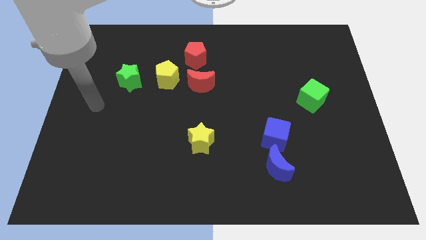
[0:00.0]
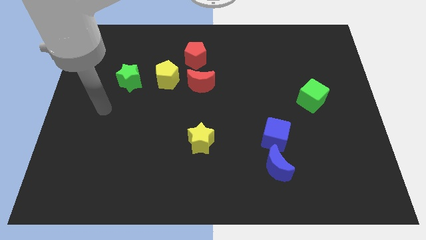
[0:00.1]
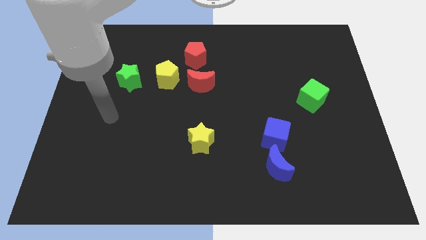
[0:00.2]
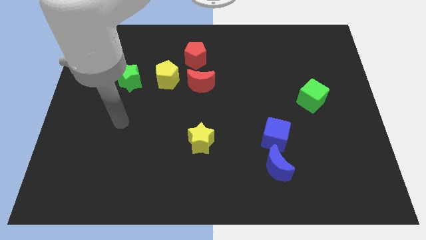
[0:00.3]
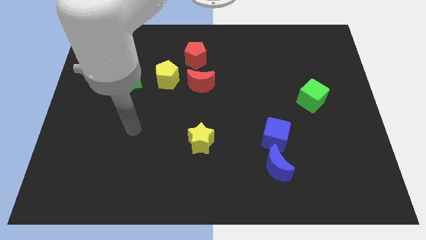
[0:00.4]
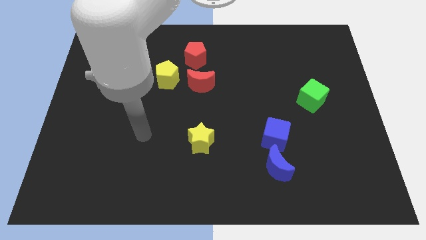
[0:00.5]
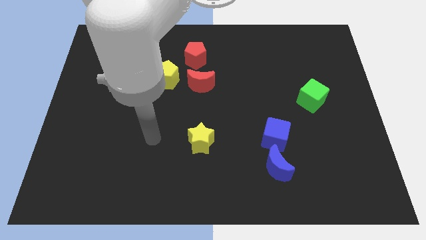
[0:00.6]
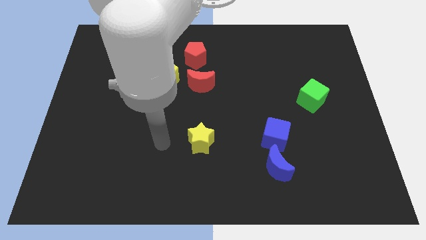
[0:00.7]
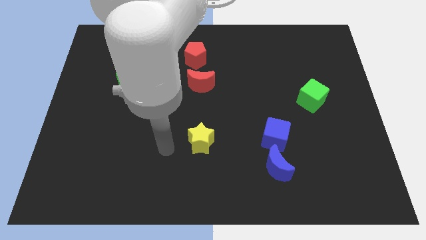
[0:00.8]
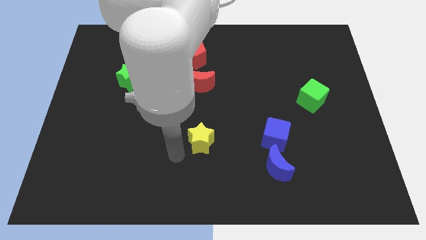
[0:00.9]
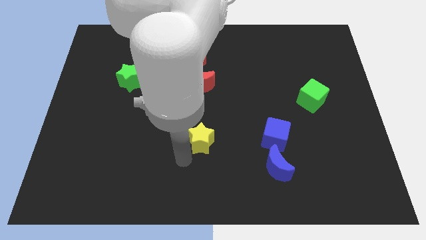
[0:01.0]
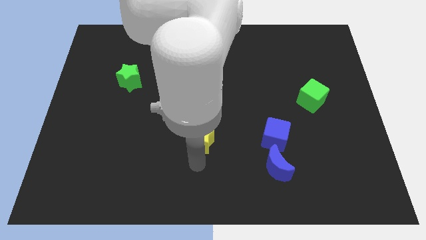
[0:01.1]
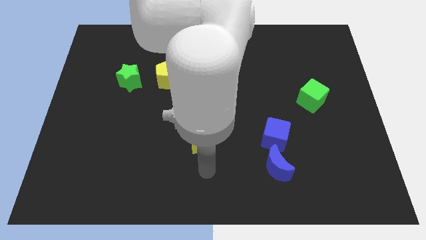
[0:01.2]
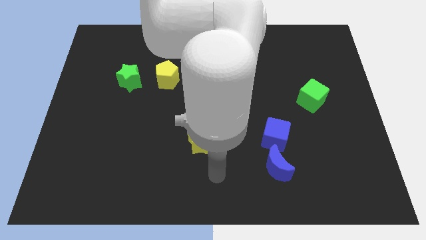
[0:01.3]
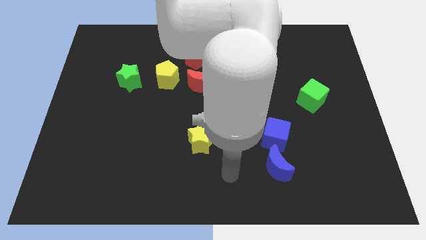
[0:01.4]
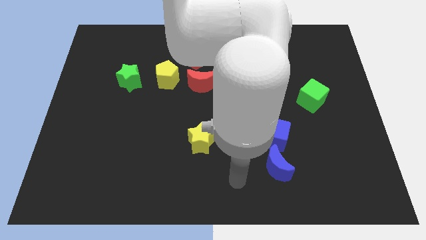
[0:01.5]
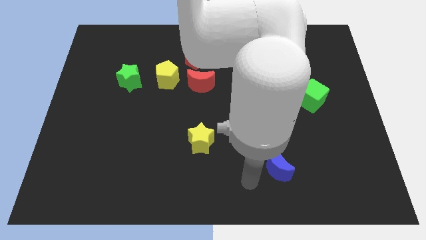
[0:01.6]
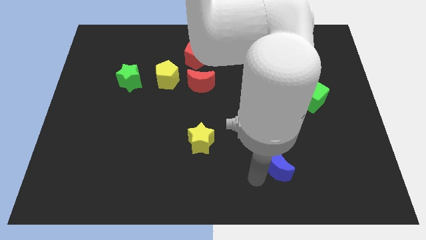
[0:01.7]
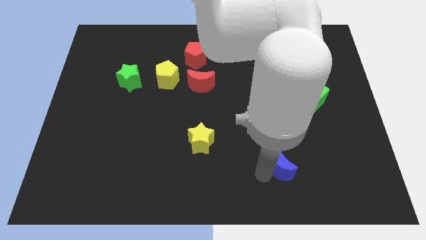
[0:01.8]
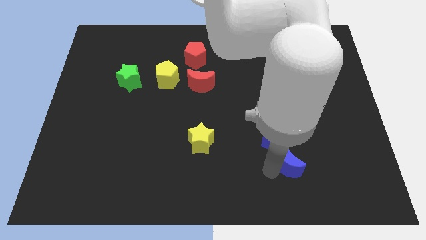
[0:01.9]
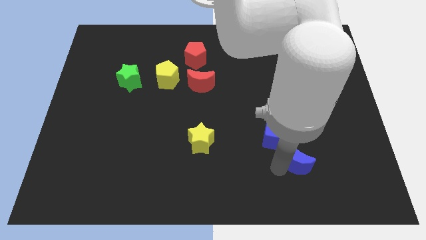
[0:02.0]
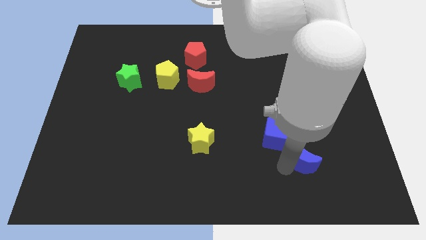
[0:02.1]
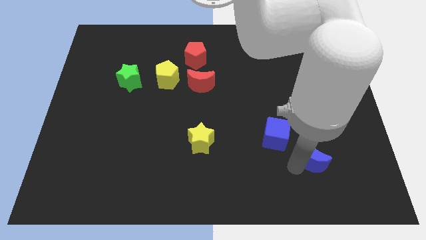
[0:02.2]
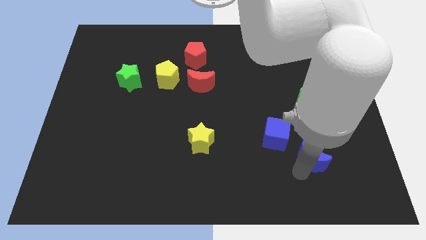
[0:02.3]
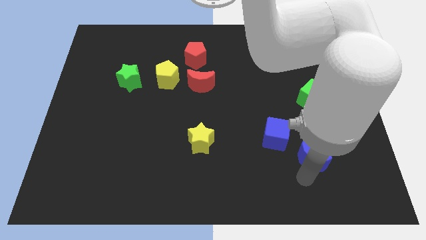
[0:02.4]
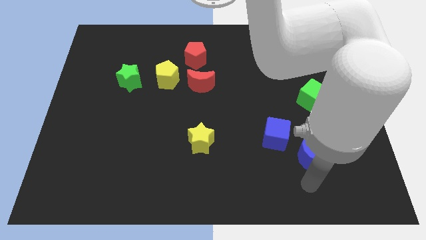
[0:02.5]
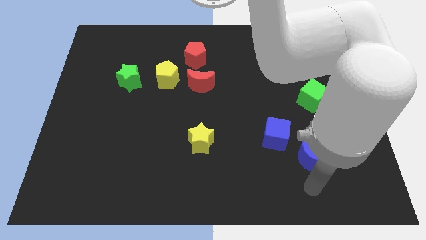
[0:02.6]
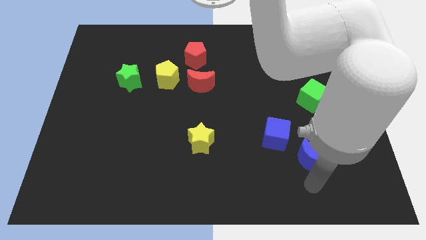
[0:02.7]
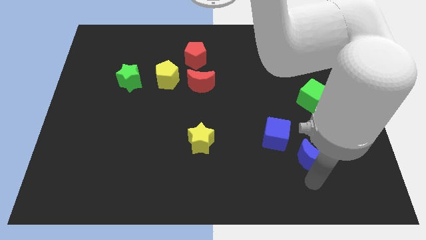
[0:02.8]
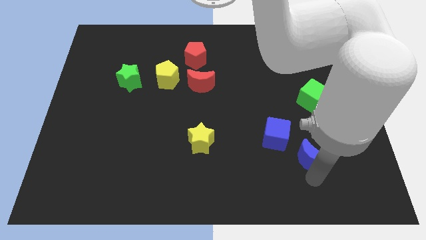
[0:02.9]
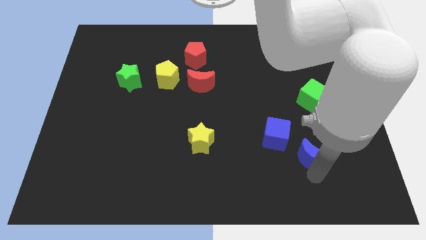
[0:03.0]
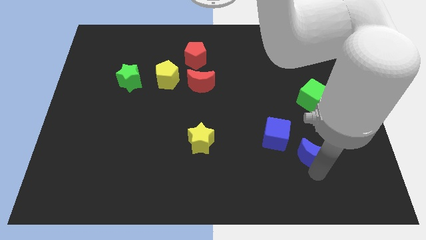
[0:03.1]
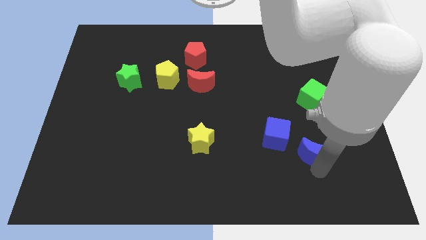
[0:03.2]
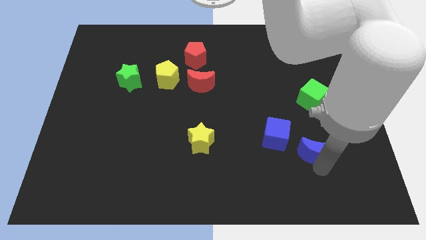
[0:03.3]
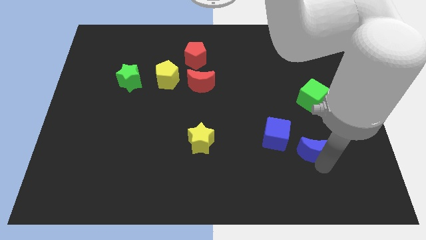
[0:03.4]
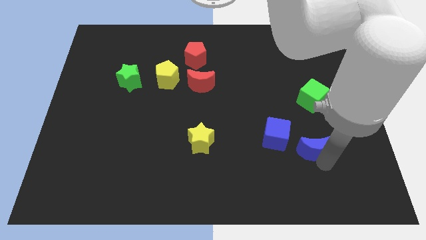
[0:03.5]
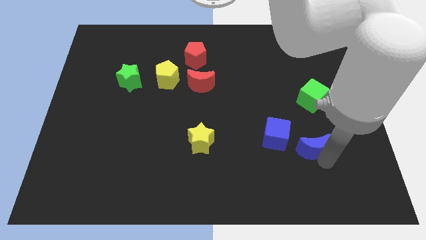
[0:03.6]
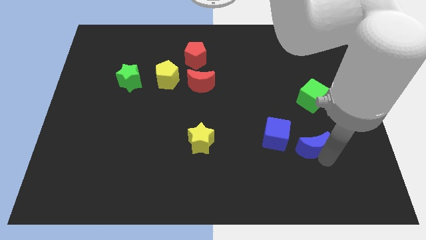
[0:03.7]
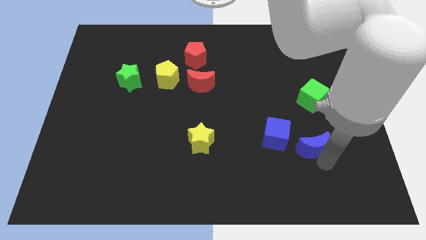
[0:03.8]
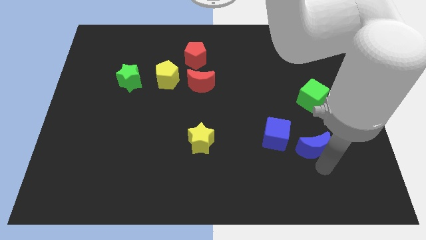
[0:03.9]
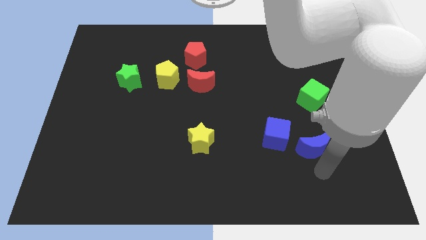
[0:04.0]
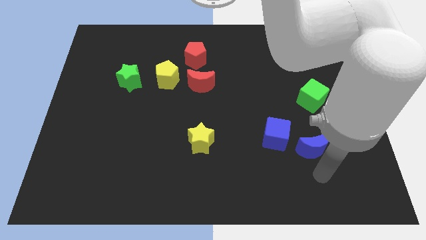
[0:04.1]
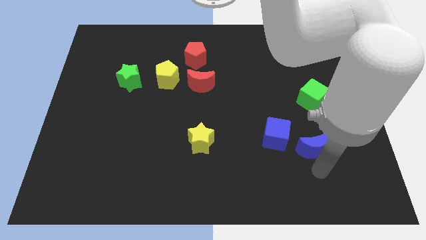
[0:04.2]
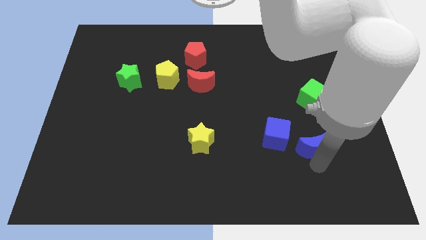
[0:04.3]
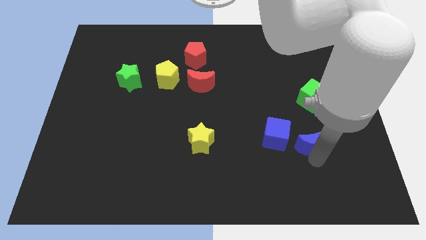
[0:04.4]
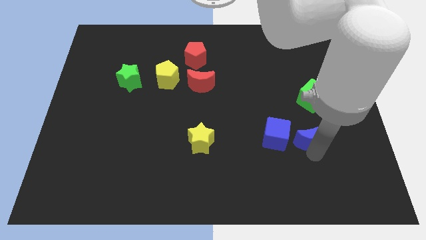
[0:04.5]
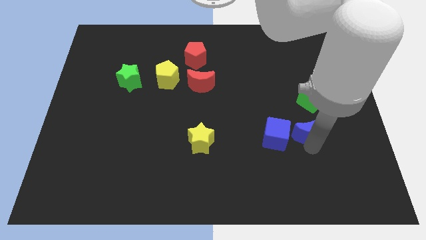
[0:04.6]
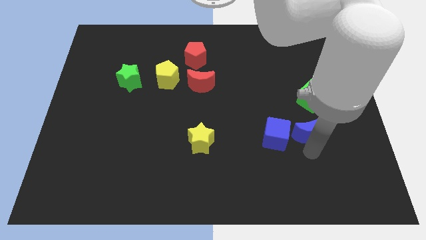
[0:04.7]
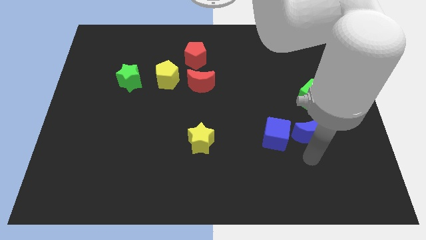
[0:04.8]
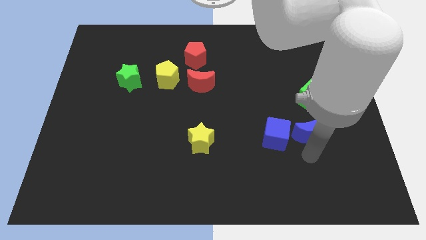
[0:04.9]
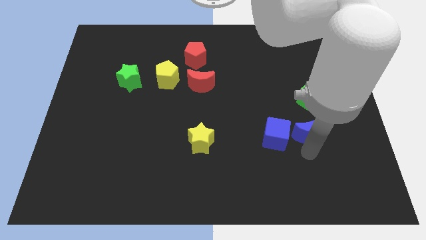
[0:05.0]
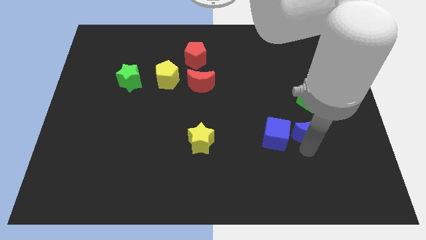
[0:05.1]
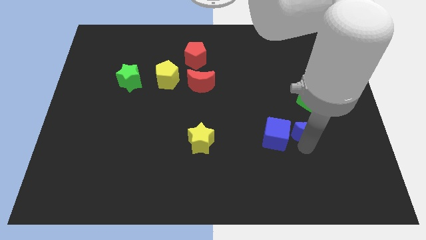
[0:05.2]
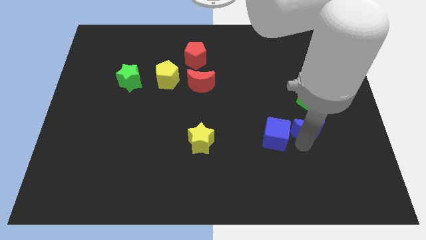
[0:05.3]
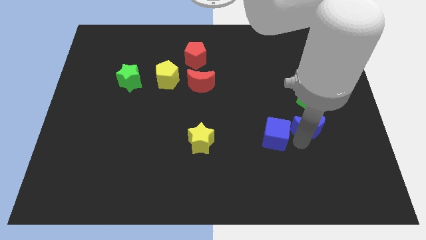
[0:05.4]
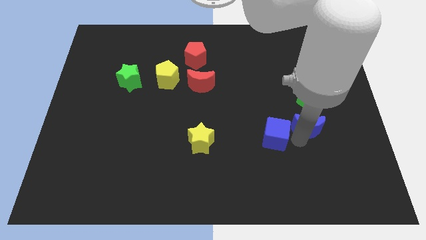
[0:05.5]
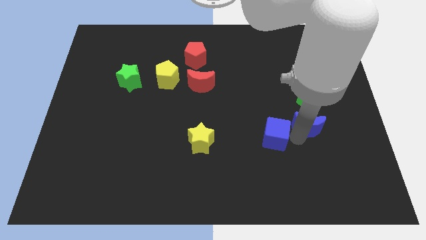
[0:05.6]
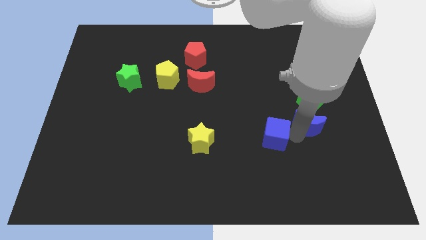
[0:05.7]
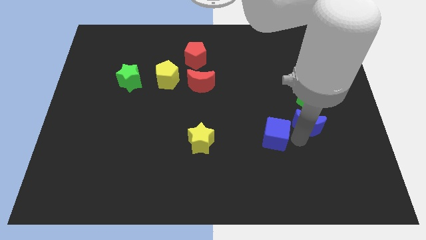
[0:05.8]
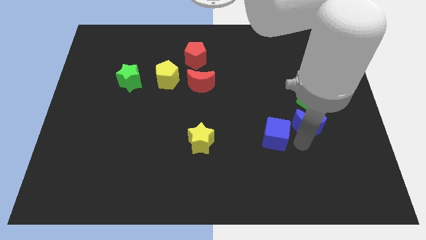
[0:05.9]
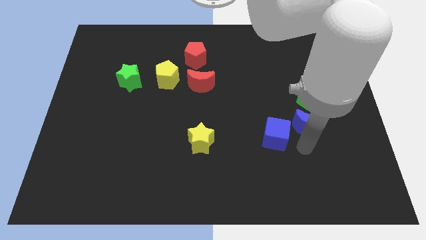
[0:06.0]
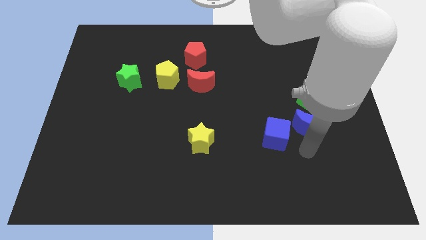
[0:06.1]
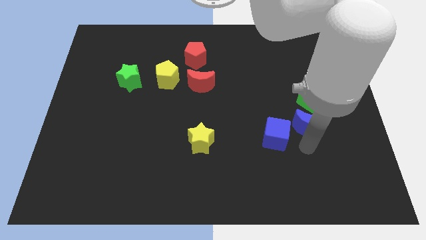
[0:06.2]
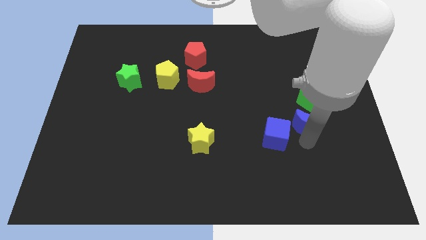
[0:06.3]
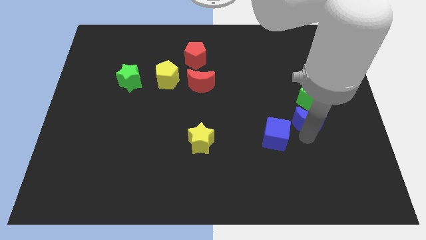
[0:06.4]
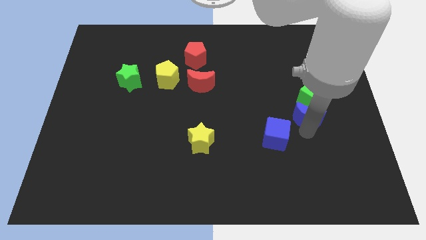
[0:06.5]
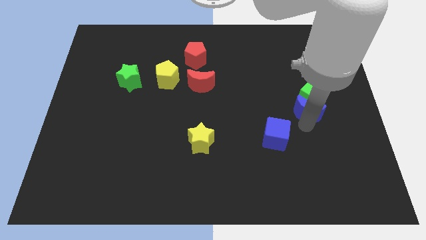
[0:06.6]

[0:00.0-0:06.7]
slide the blue moon next to the green cube
